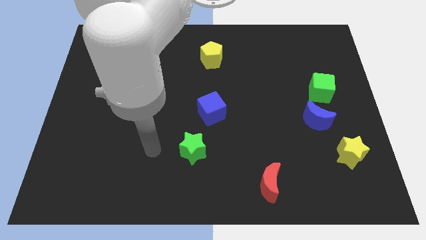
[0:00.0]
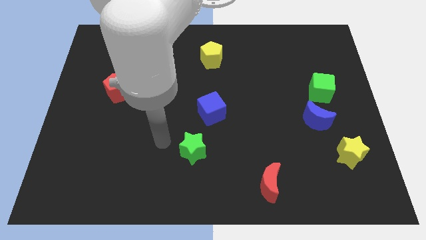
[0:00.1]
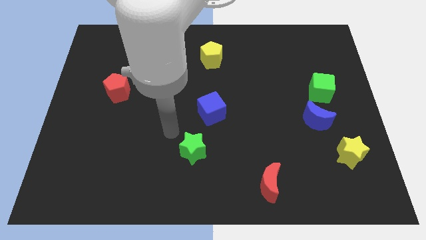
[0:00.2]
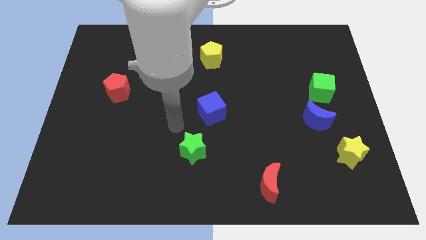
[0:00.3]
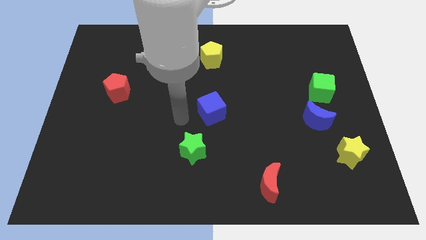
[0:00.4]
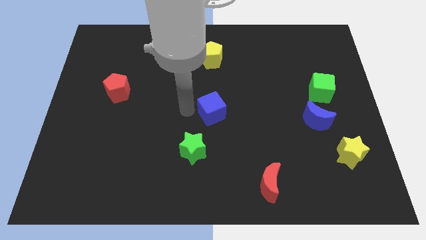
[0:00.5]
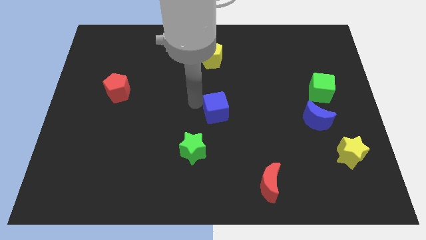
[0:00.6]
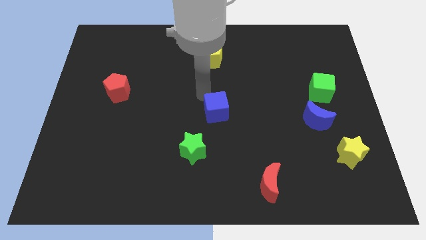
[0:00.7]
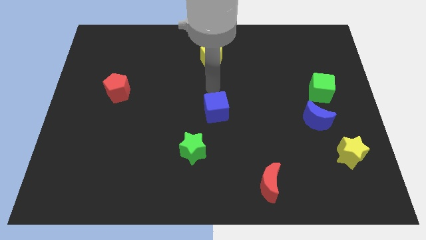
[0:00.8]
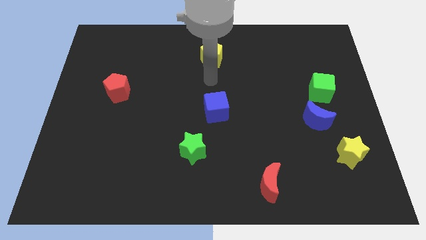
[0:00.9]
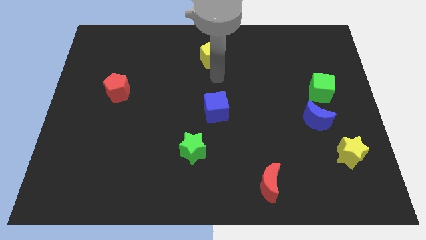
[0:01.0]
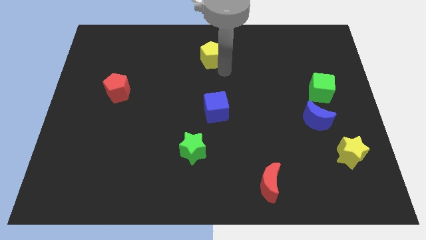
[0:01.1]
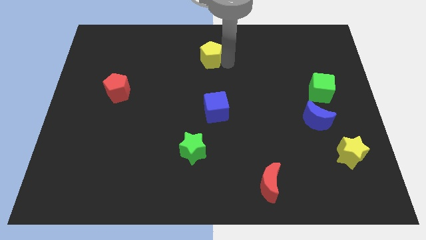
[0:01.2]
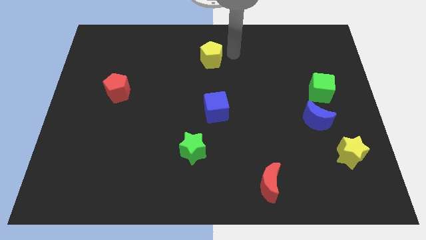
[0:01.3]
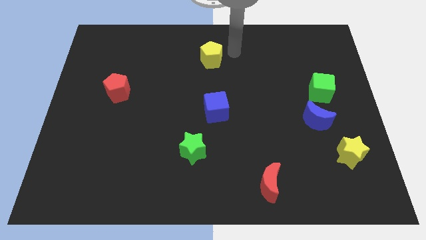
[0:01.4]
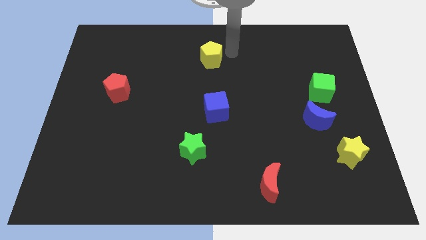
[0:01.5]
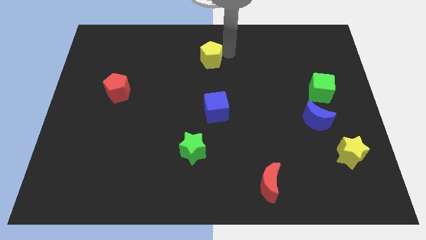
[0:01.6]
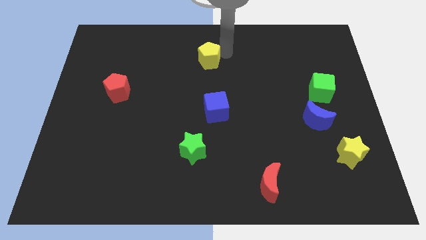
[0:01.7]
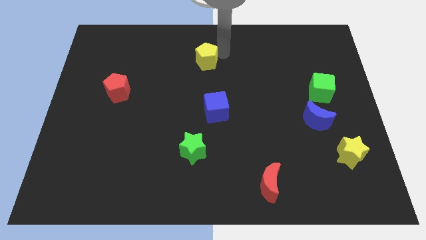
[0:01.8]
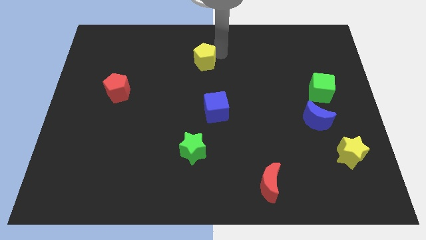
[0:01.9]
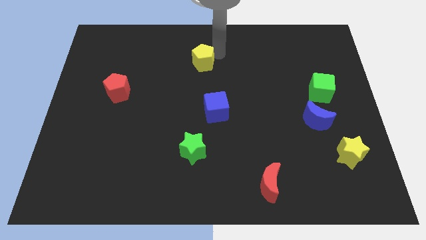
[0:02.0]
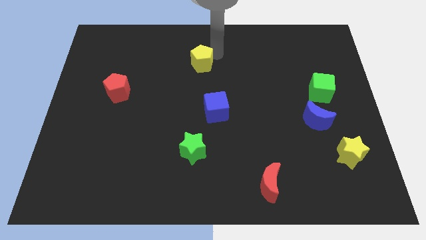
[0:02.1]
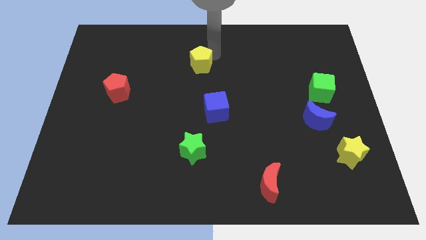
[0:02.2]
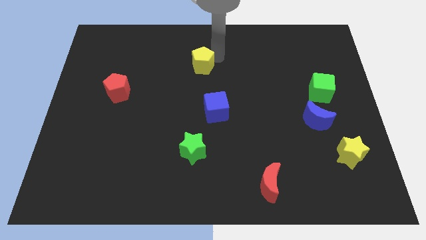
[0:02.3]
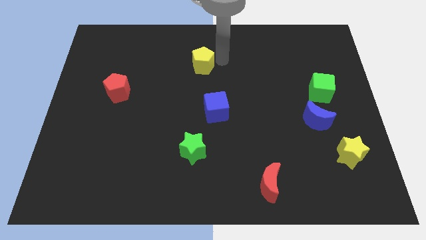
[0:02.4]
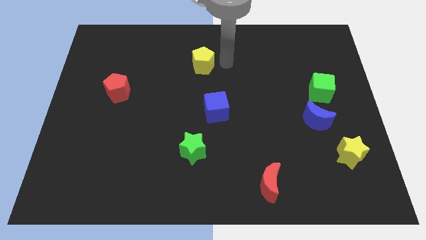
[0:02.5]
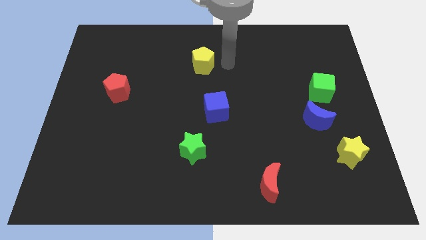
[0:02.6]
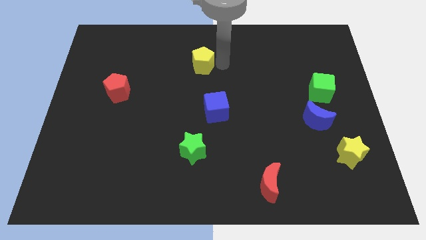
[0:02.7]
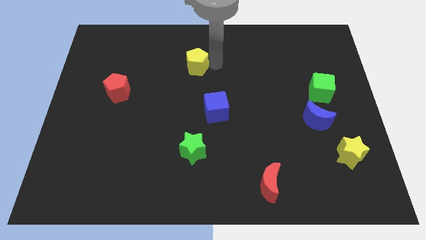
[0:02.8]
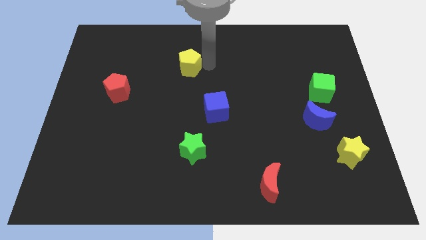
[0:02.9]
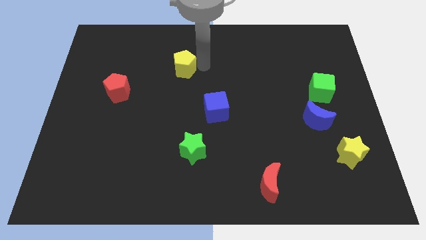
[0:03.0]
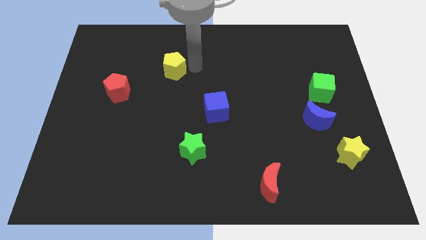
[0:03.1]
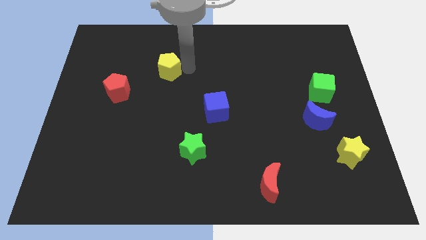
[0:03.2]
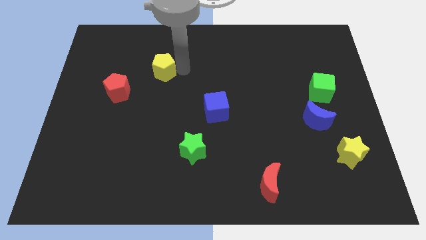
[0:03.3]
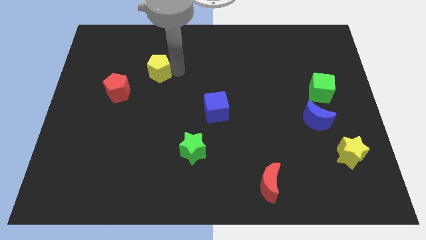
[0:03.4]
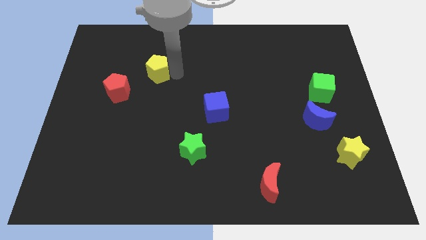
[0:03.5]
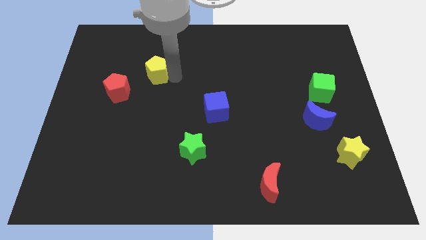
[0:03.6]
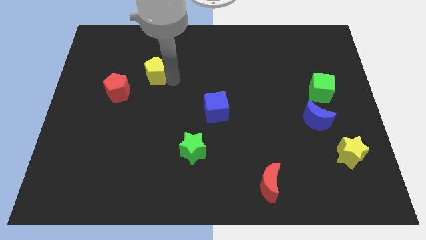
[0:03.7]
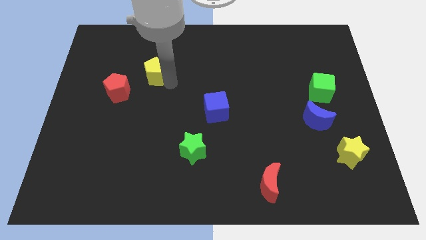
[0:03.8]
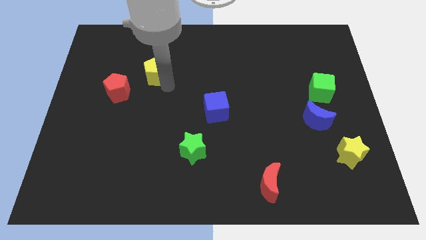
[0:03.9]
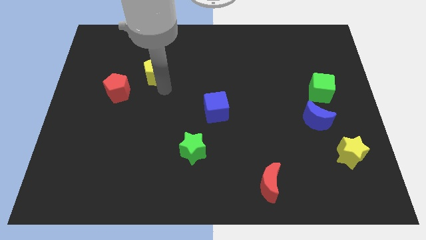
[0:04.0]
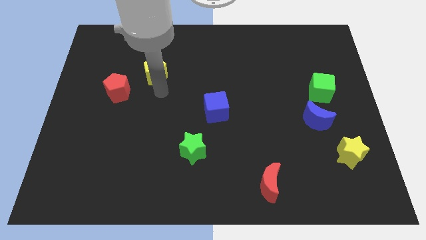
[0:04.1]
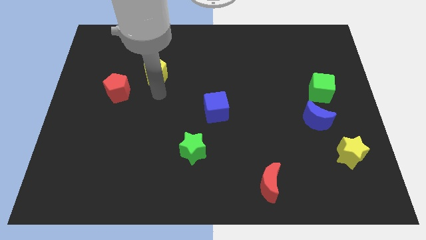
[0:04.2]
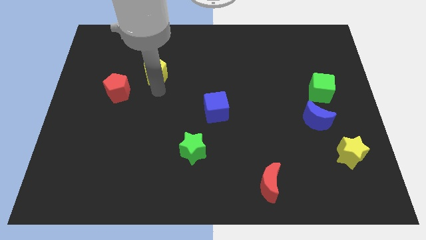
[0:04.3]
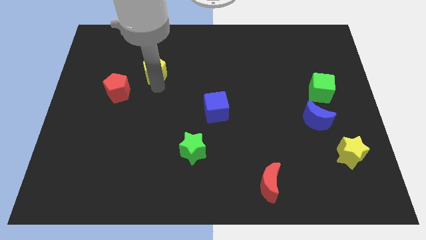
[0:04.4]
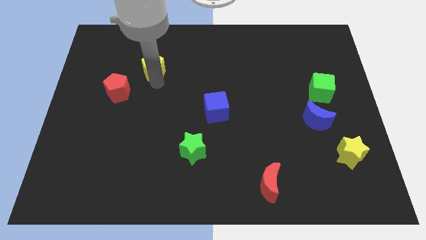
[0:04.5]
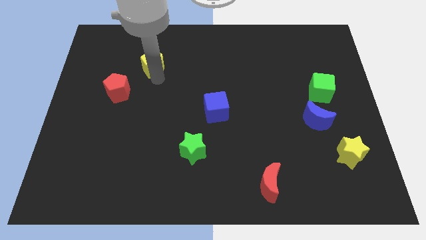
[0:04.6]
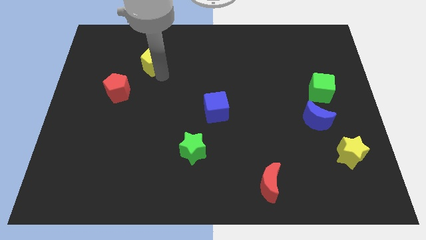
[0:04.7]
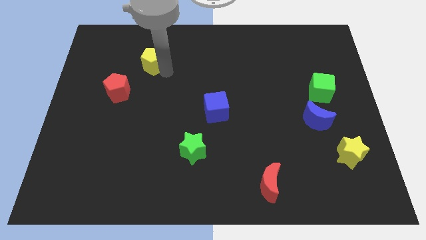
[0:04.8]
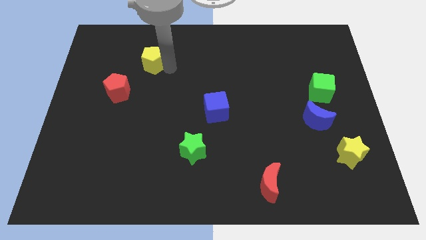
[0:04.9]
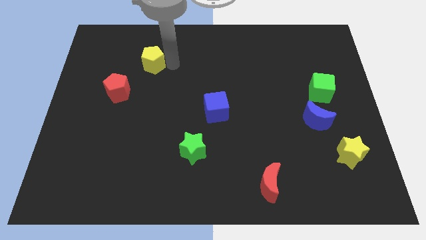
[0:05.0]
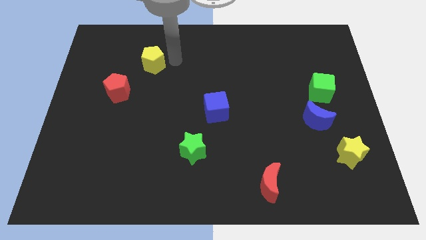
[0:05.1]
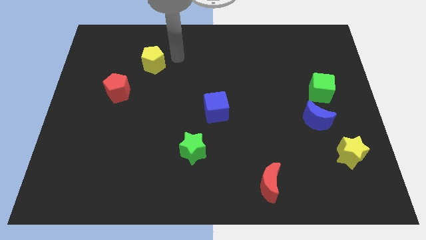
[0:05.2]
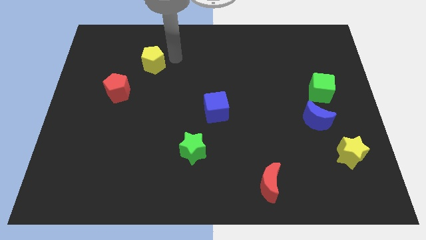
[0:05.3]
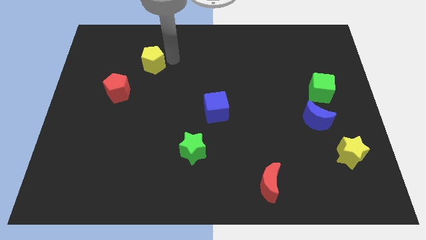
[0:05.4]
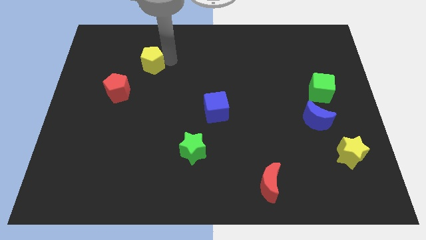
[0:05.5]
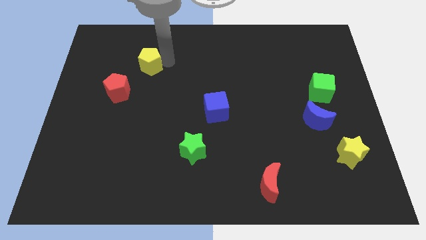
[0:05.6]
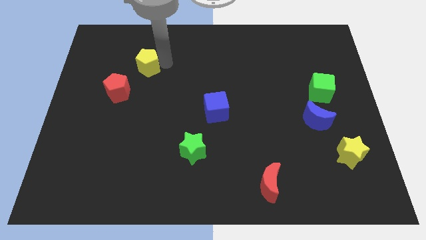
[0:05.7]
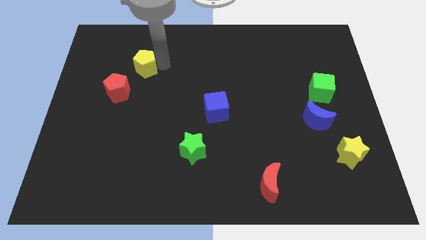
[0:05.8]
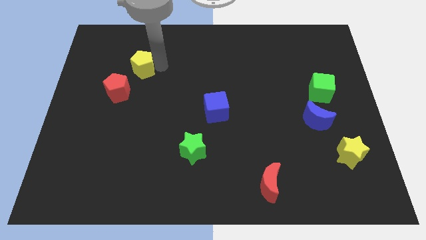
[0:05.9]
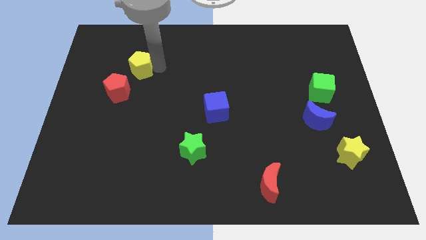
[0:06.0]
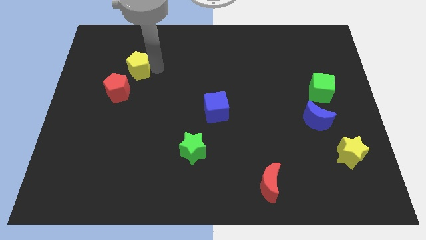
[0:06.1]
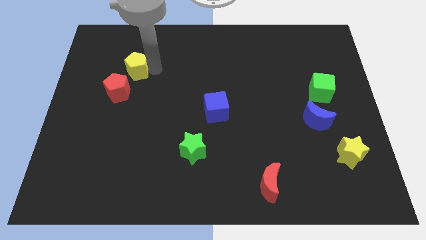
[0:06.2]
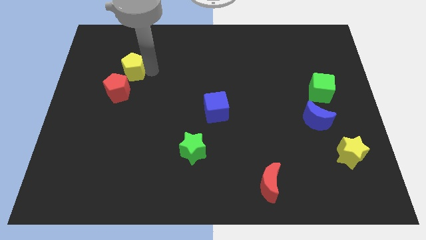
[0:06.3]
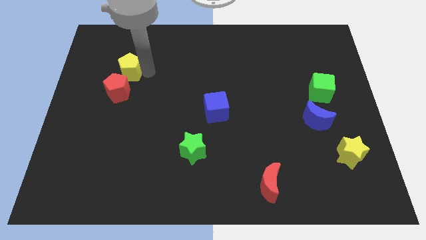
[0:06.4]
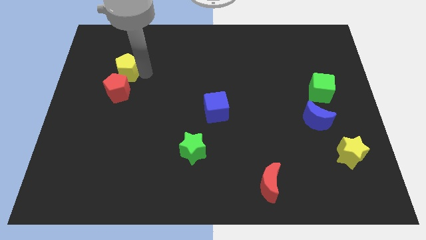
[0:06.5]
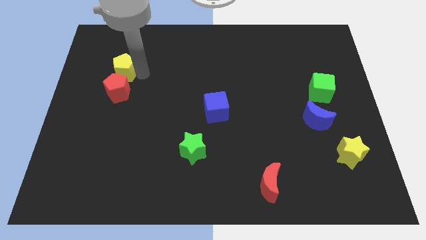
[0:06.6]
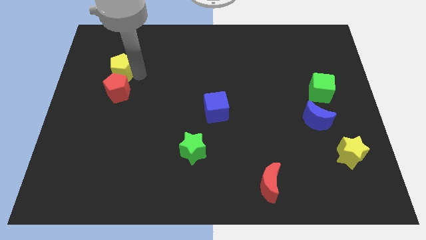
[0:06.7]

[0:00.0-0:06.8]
push the yellow pentagon diagonally up and to the left of the red pentagon

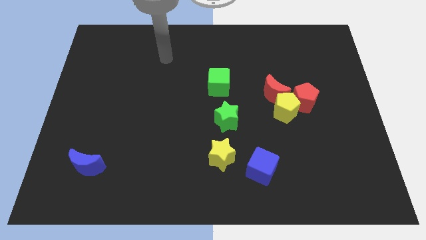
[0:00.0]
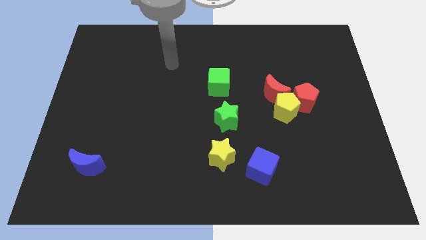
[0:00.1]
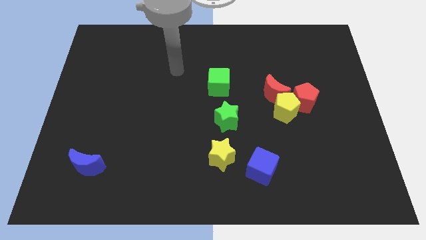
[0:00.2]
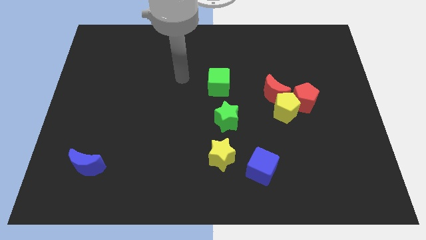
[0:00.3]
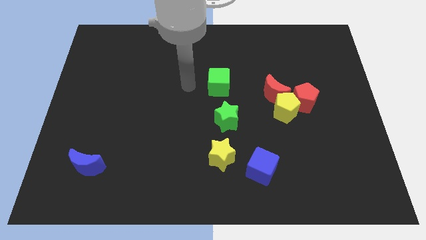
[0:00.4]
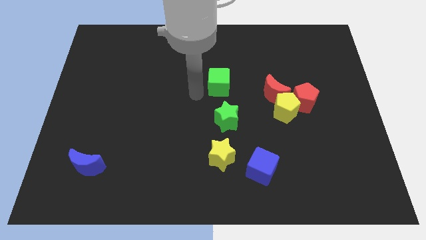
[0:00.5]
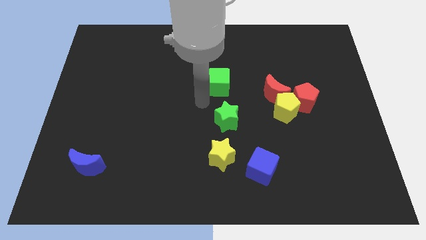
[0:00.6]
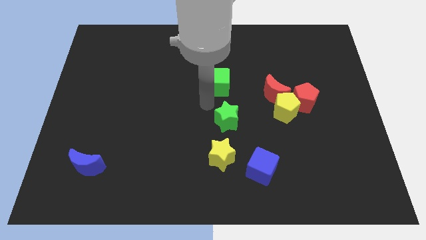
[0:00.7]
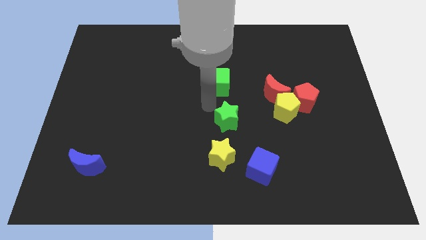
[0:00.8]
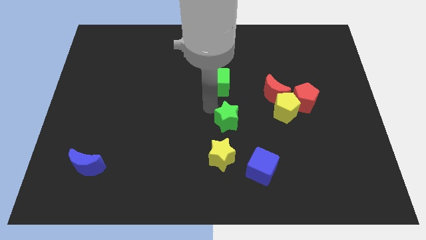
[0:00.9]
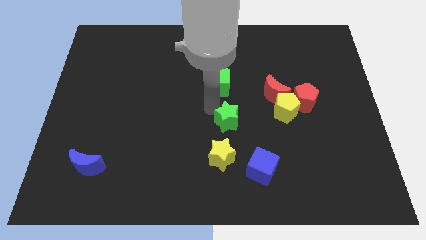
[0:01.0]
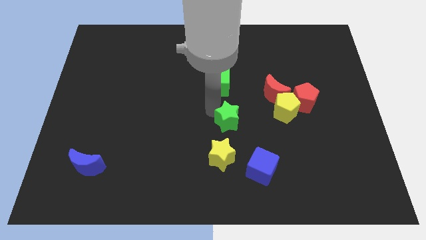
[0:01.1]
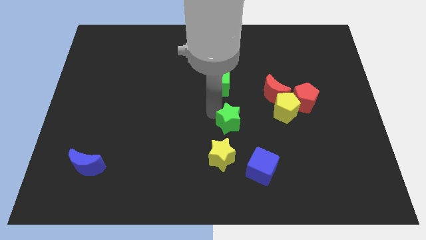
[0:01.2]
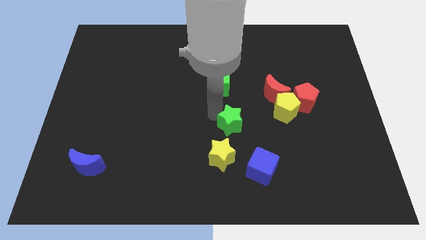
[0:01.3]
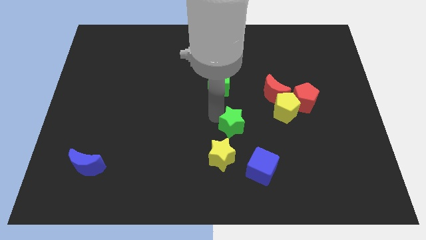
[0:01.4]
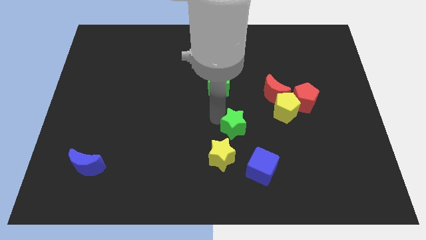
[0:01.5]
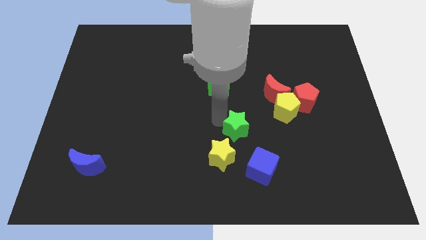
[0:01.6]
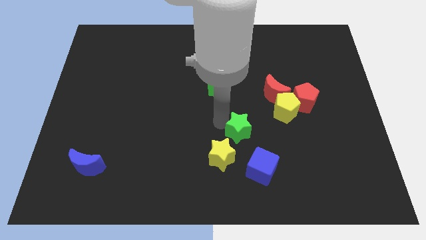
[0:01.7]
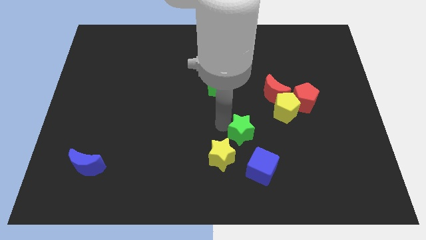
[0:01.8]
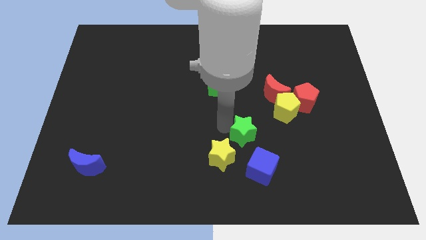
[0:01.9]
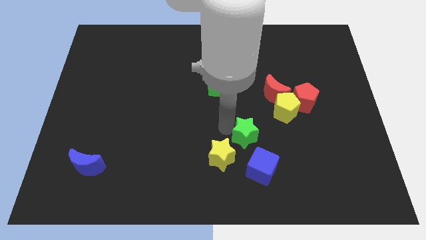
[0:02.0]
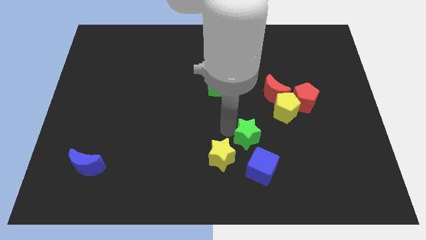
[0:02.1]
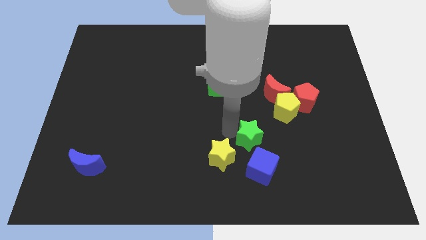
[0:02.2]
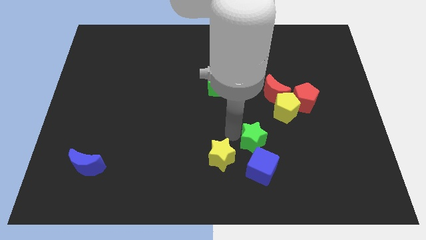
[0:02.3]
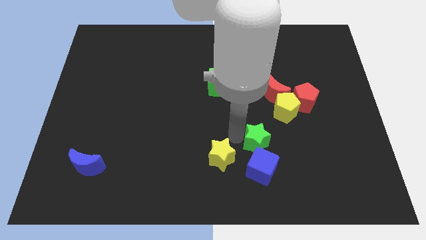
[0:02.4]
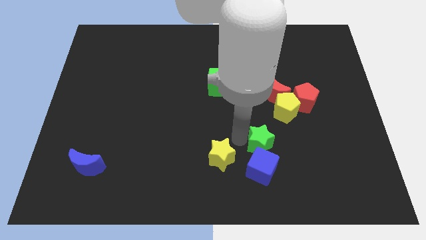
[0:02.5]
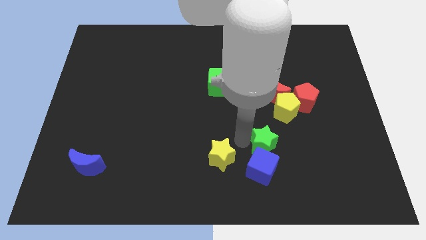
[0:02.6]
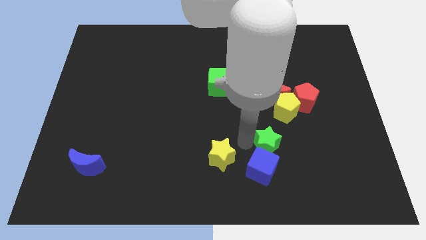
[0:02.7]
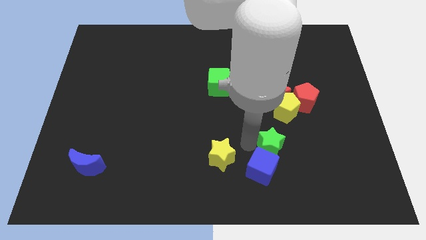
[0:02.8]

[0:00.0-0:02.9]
slide the green star to the bottom side of the yellow pentagon
